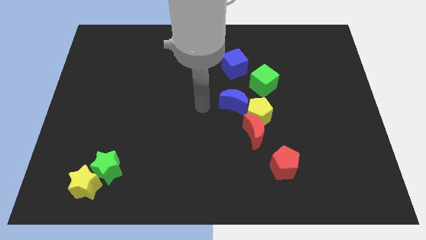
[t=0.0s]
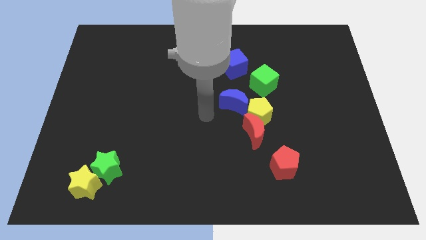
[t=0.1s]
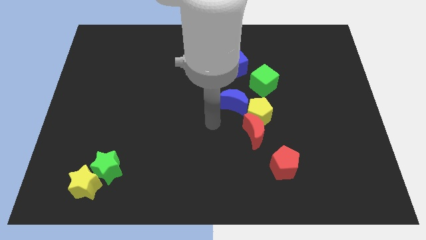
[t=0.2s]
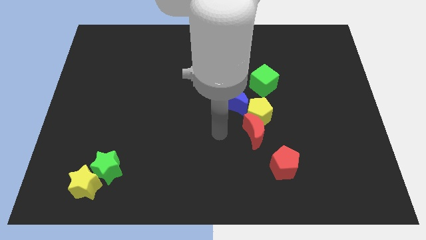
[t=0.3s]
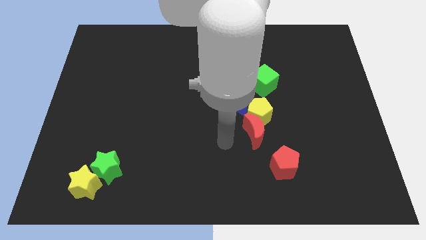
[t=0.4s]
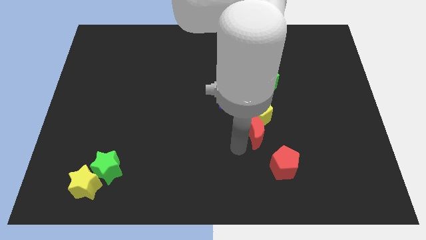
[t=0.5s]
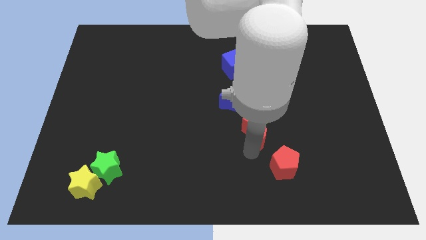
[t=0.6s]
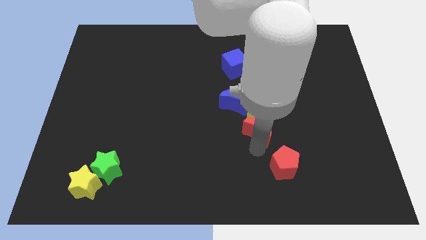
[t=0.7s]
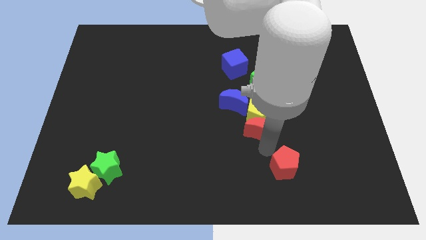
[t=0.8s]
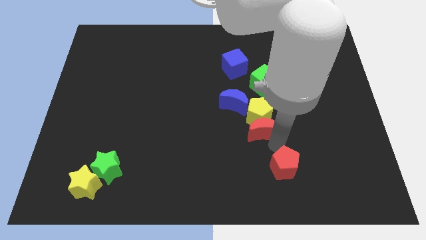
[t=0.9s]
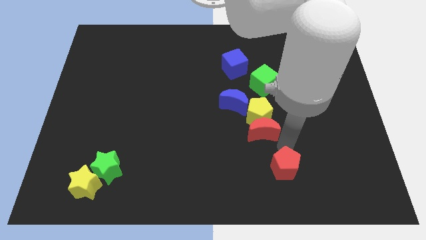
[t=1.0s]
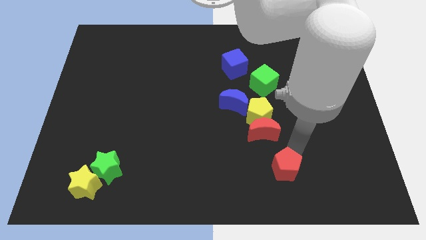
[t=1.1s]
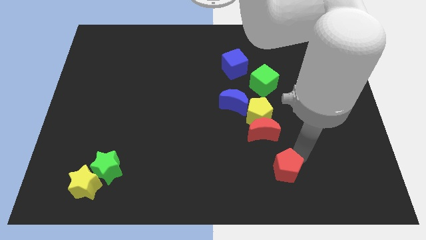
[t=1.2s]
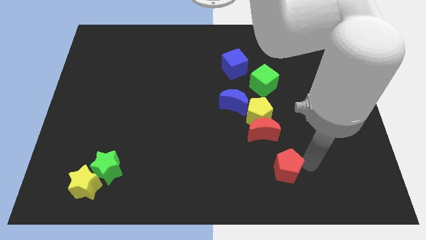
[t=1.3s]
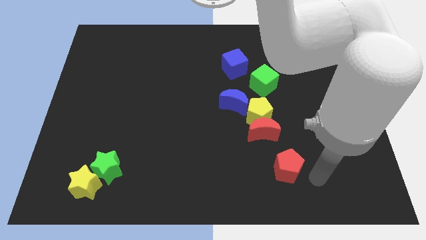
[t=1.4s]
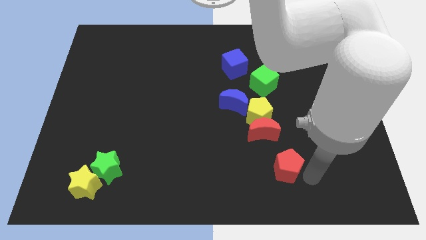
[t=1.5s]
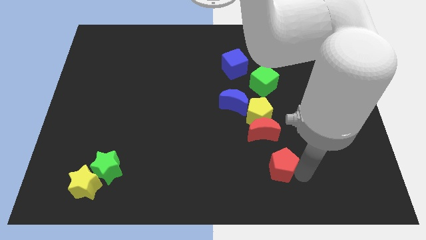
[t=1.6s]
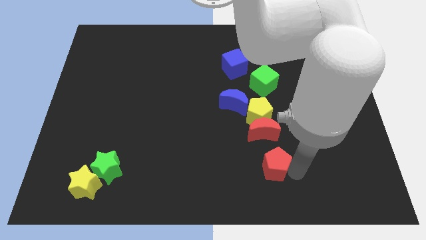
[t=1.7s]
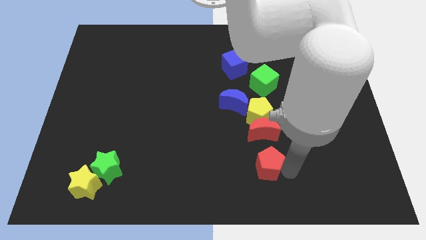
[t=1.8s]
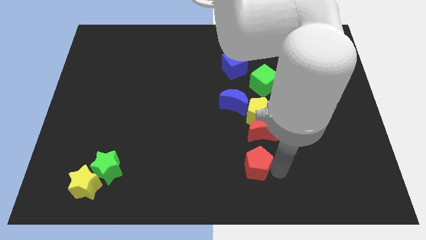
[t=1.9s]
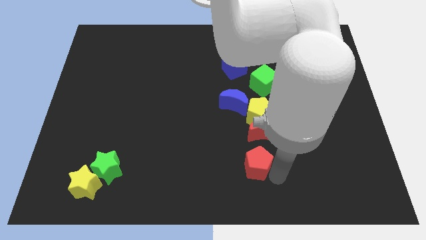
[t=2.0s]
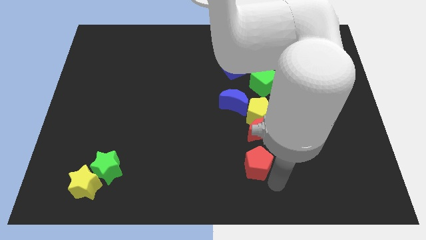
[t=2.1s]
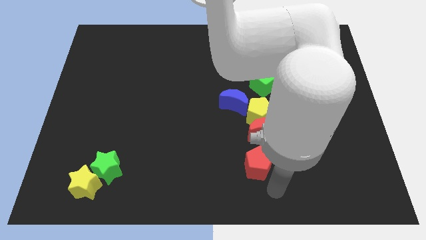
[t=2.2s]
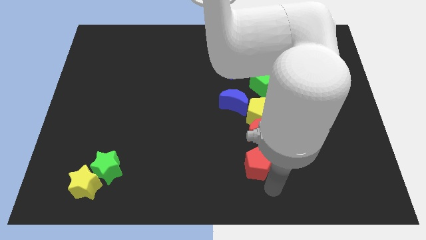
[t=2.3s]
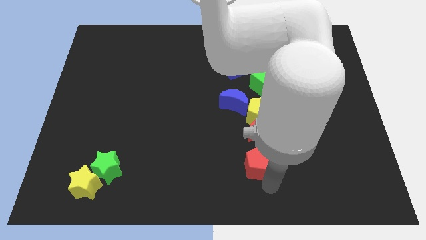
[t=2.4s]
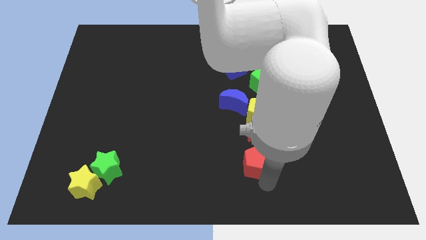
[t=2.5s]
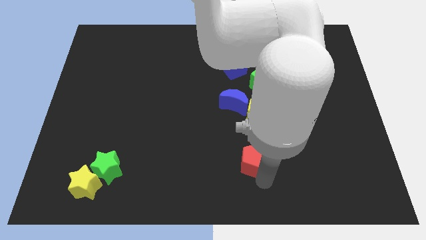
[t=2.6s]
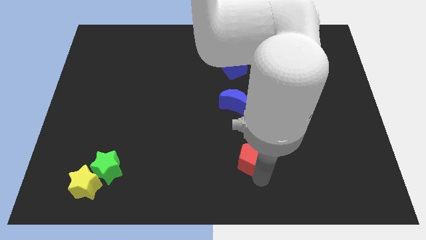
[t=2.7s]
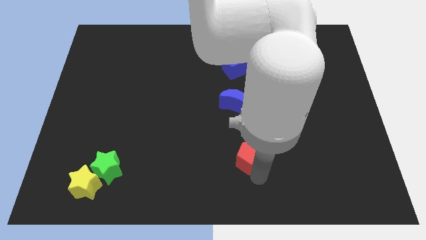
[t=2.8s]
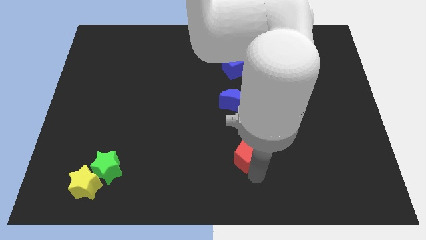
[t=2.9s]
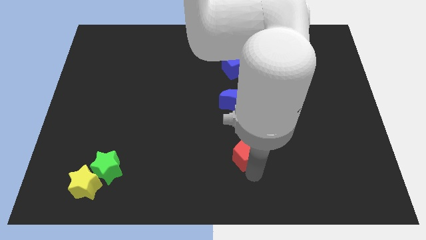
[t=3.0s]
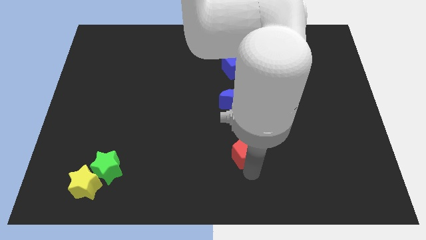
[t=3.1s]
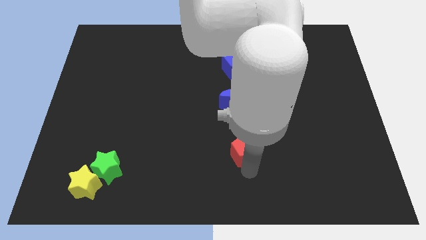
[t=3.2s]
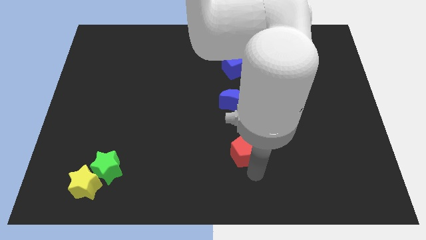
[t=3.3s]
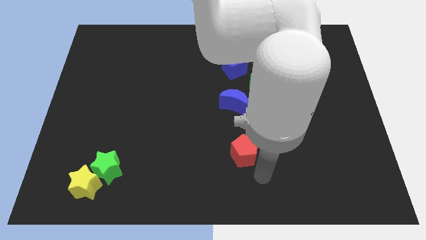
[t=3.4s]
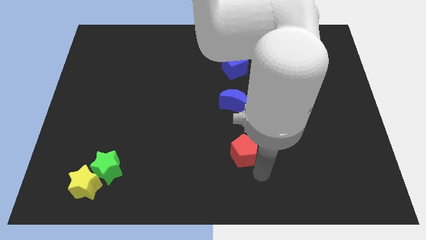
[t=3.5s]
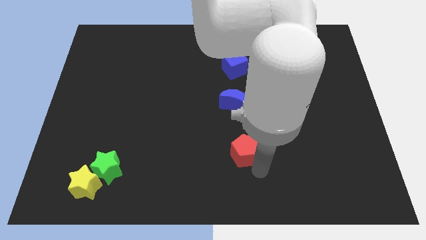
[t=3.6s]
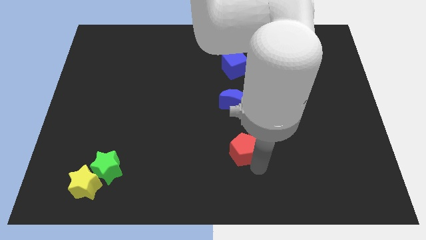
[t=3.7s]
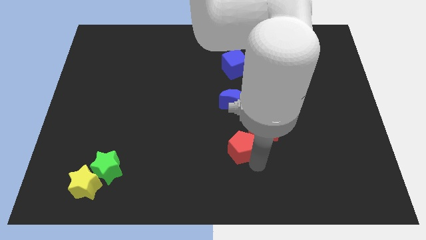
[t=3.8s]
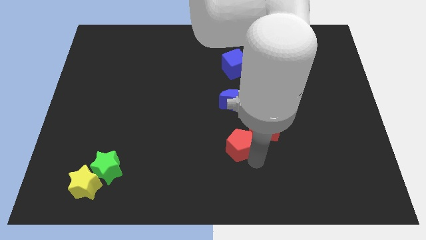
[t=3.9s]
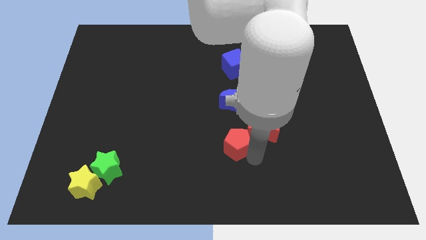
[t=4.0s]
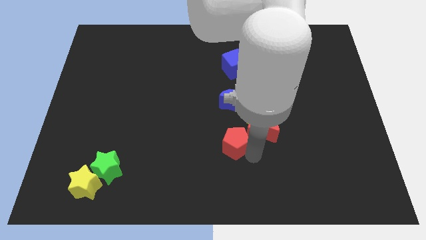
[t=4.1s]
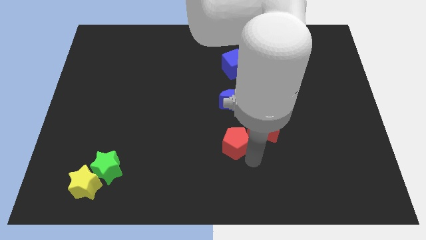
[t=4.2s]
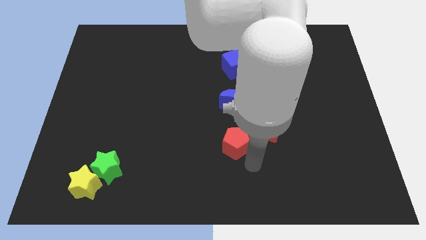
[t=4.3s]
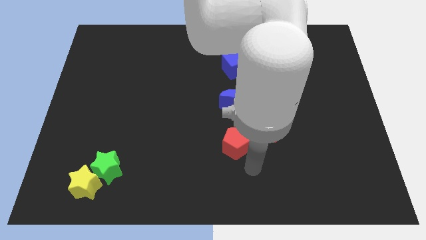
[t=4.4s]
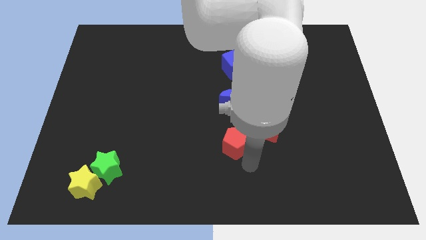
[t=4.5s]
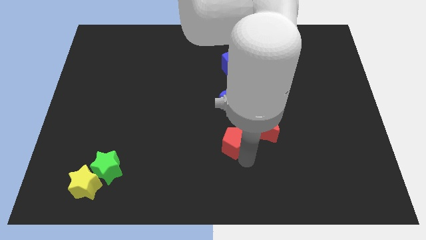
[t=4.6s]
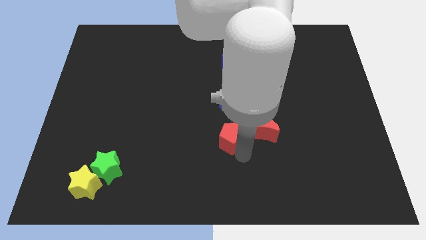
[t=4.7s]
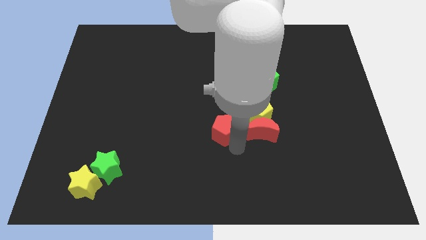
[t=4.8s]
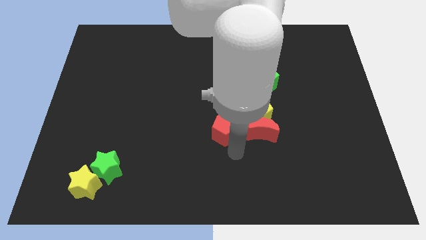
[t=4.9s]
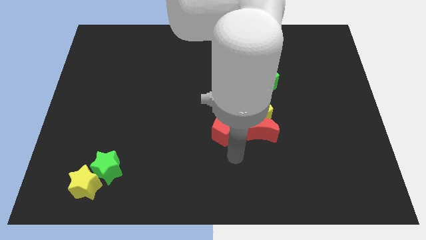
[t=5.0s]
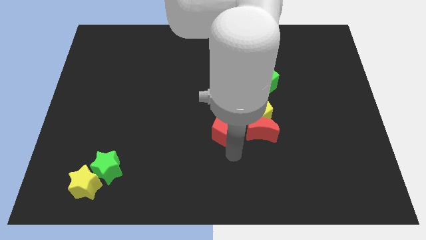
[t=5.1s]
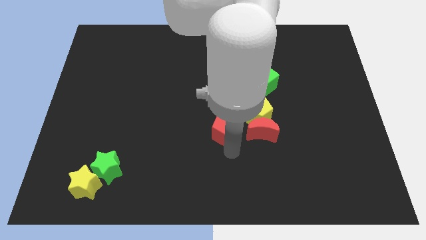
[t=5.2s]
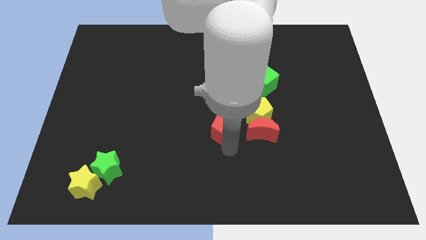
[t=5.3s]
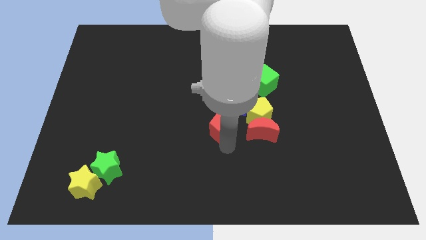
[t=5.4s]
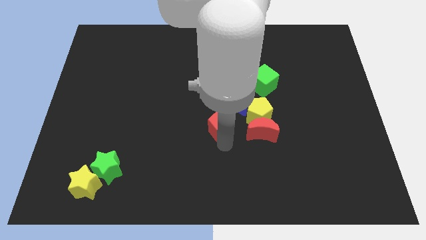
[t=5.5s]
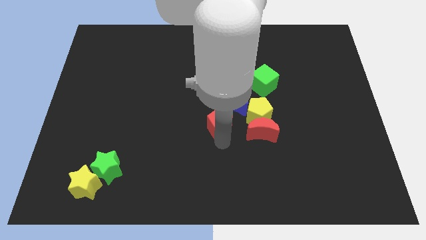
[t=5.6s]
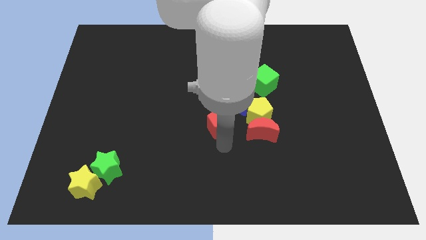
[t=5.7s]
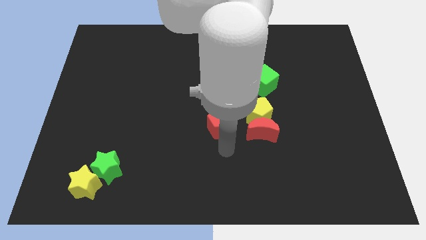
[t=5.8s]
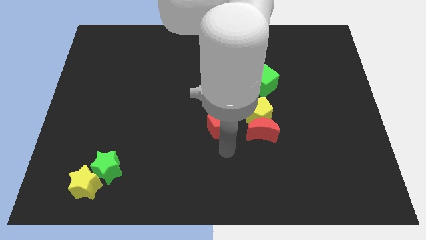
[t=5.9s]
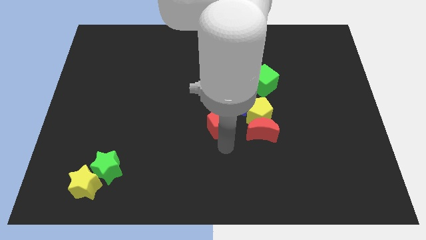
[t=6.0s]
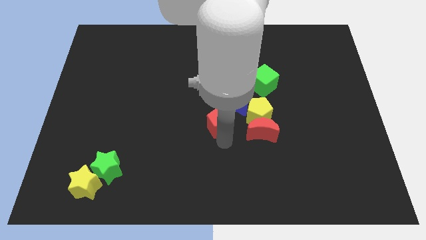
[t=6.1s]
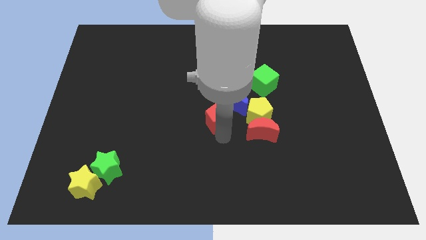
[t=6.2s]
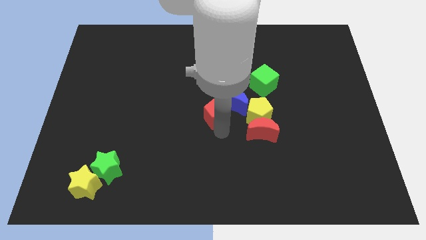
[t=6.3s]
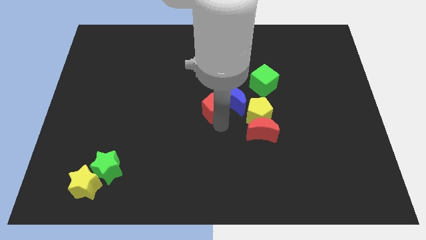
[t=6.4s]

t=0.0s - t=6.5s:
move the red pentagon up and to the left diagonally

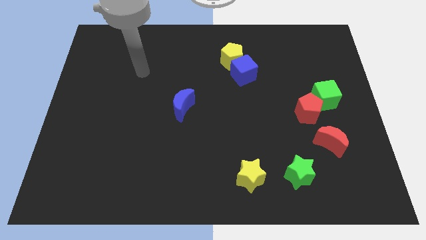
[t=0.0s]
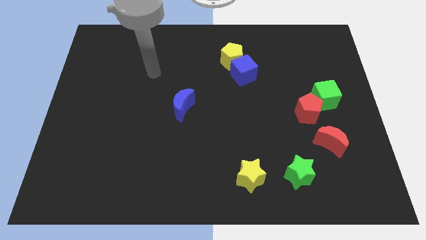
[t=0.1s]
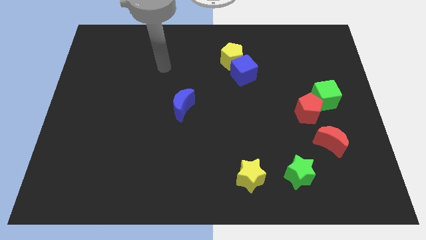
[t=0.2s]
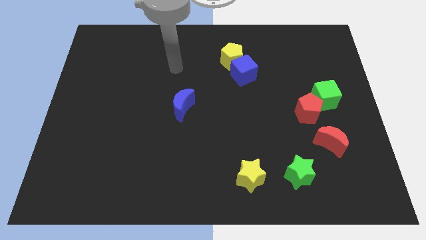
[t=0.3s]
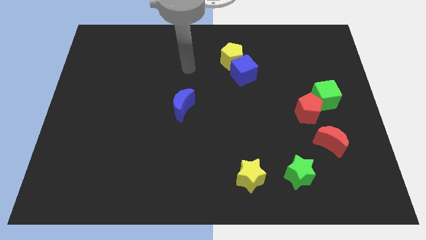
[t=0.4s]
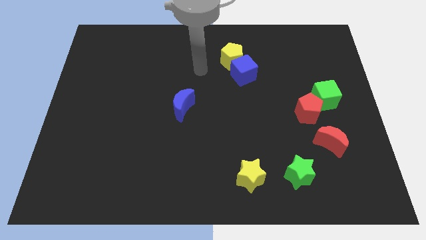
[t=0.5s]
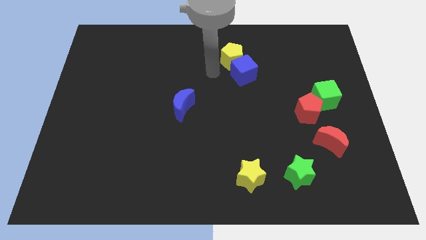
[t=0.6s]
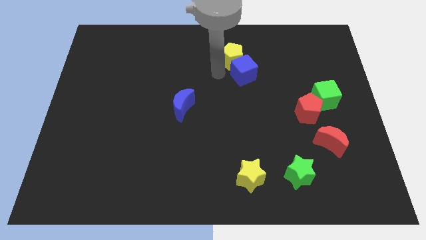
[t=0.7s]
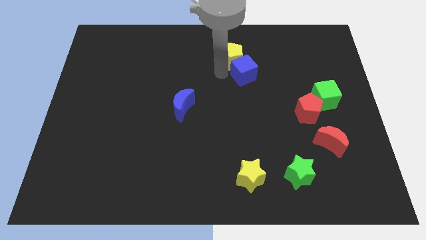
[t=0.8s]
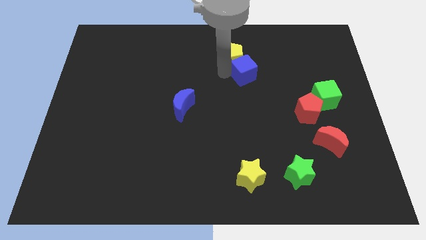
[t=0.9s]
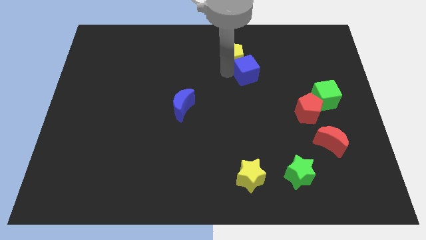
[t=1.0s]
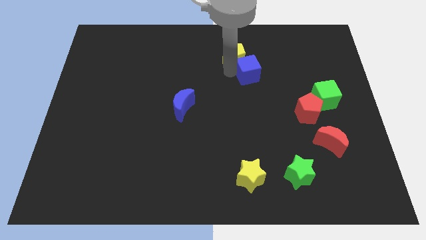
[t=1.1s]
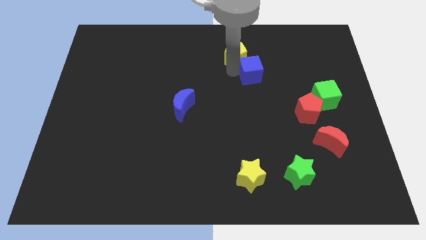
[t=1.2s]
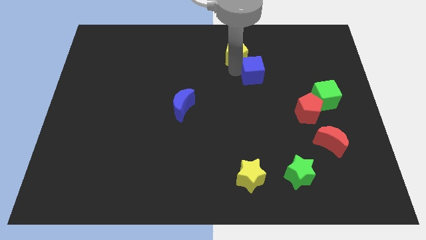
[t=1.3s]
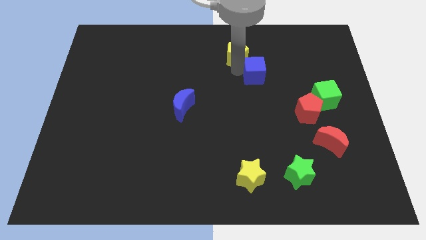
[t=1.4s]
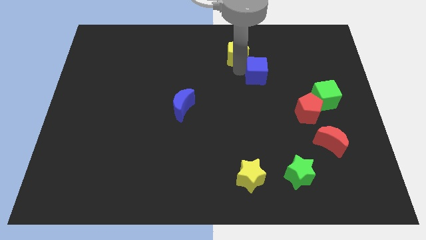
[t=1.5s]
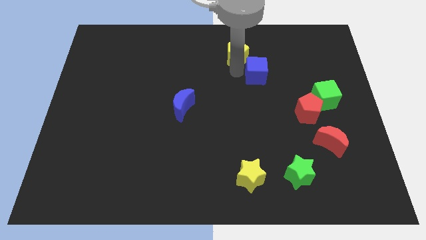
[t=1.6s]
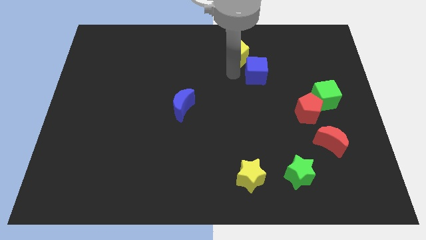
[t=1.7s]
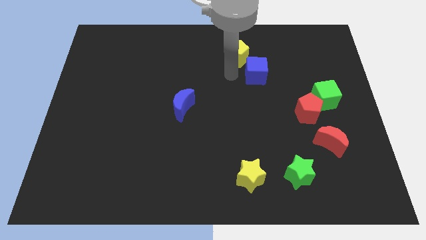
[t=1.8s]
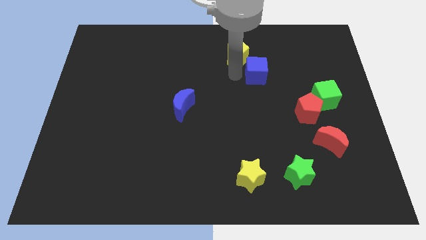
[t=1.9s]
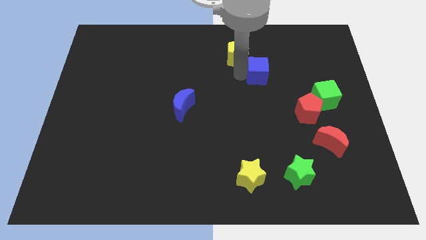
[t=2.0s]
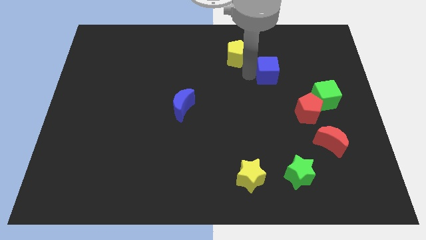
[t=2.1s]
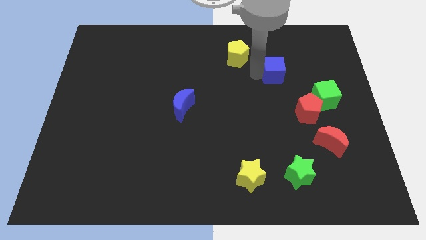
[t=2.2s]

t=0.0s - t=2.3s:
push the blue cube to the right a little bit
